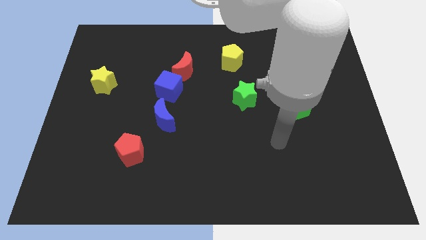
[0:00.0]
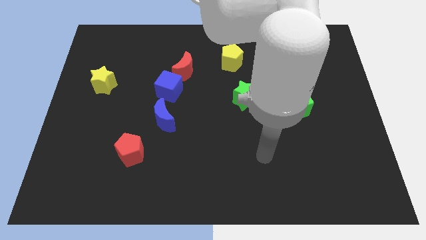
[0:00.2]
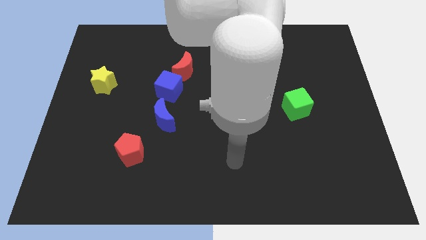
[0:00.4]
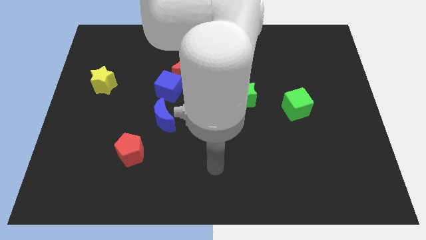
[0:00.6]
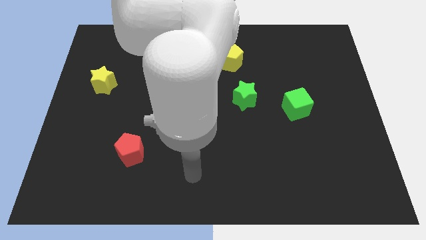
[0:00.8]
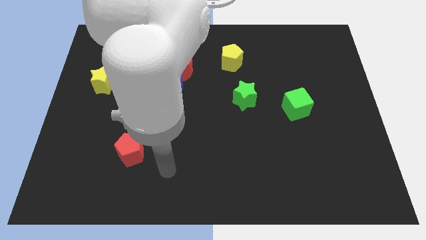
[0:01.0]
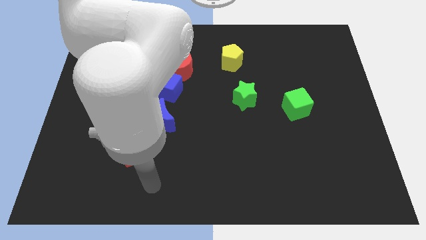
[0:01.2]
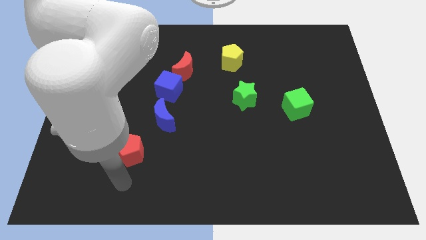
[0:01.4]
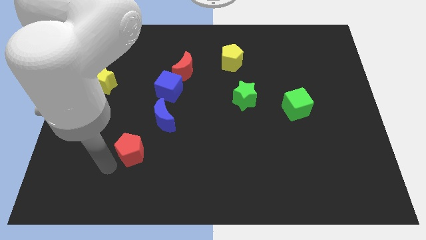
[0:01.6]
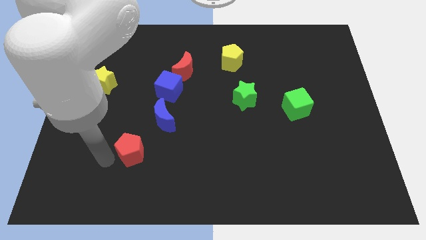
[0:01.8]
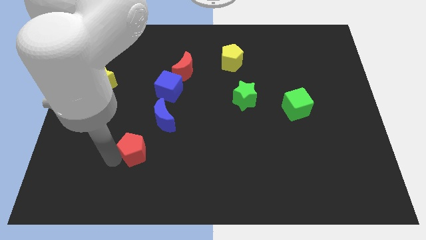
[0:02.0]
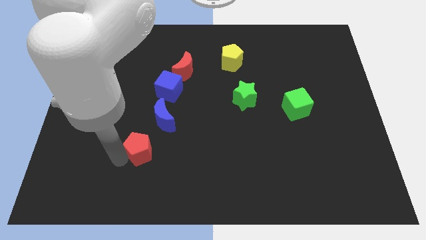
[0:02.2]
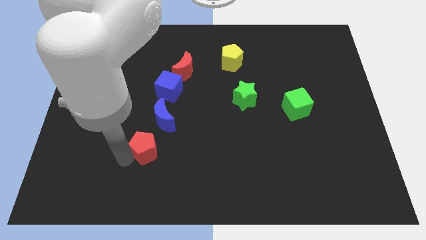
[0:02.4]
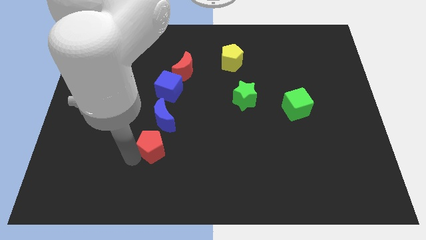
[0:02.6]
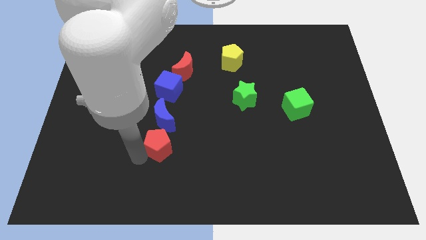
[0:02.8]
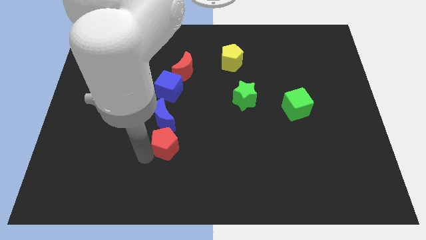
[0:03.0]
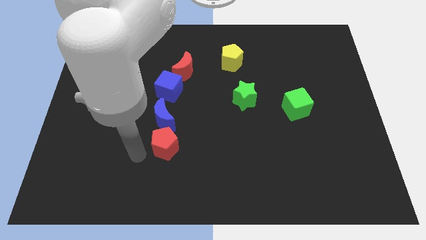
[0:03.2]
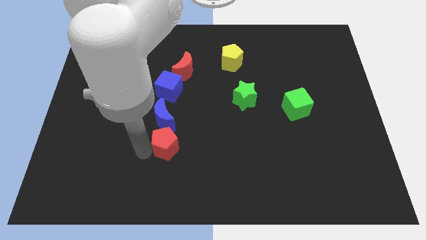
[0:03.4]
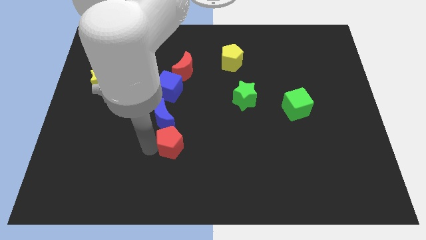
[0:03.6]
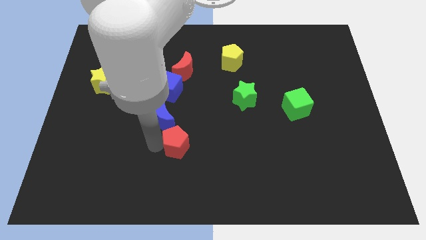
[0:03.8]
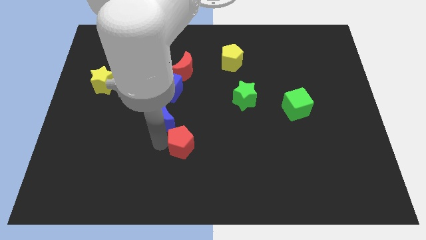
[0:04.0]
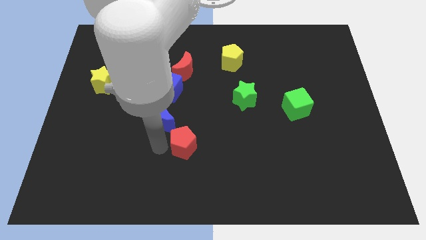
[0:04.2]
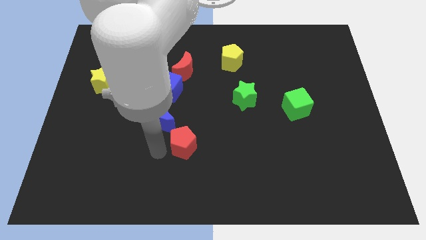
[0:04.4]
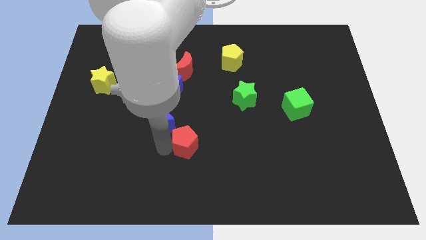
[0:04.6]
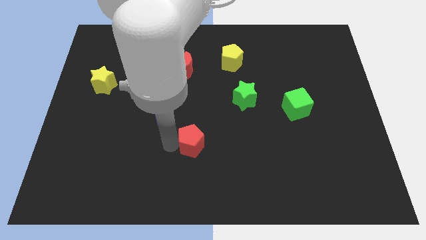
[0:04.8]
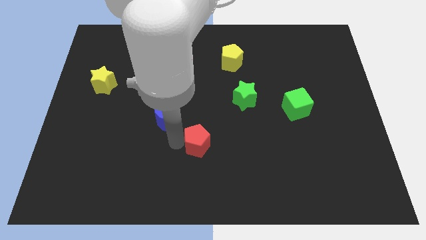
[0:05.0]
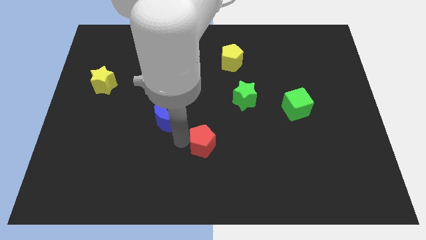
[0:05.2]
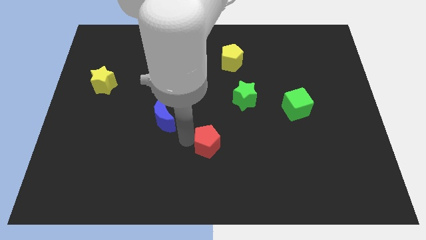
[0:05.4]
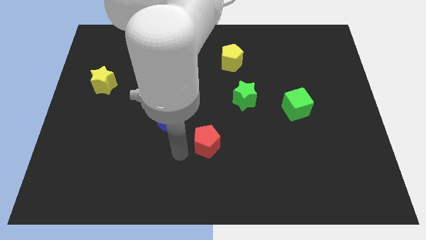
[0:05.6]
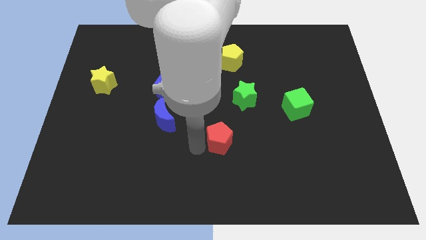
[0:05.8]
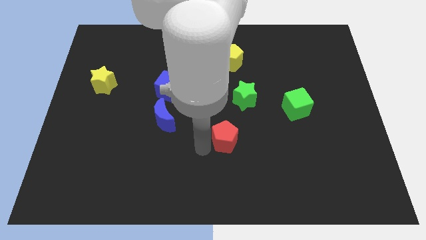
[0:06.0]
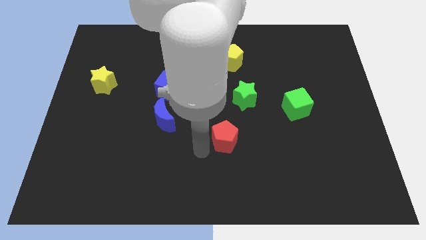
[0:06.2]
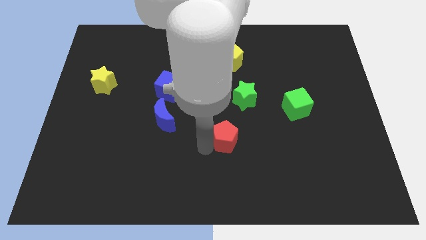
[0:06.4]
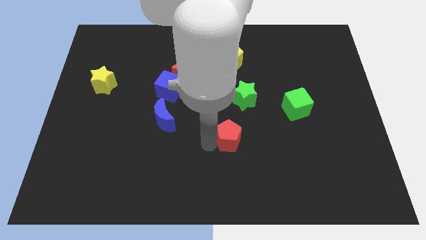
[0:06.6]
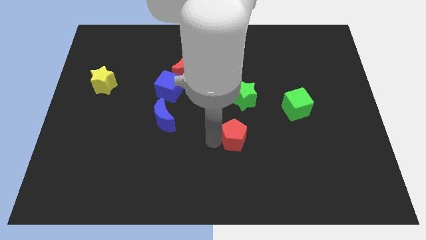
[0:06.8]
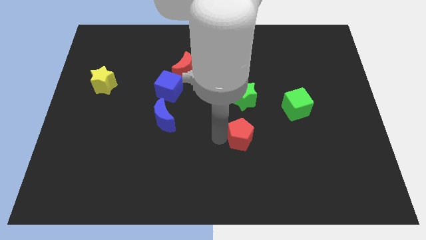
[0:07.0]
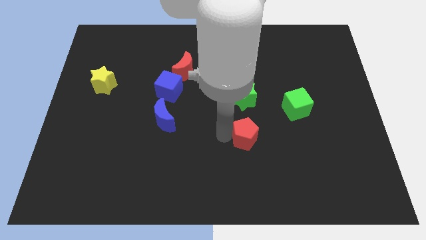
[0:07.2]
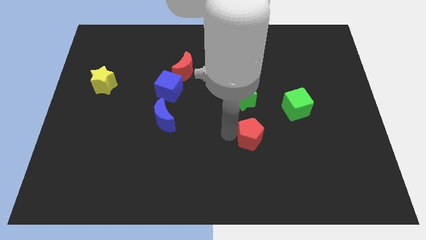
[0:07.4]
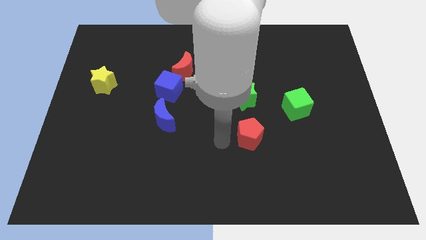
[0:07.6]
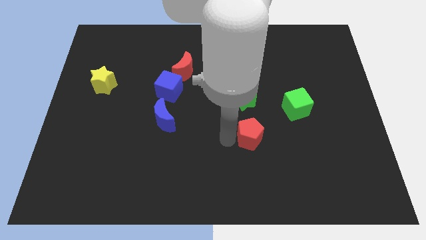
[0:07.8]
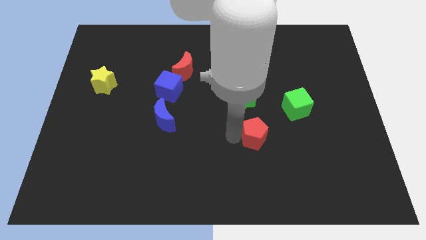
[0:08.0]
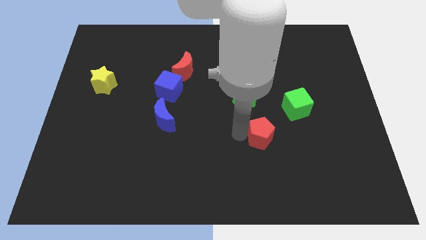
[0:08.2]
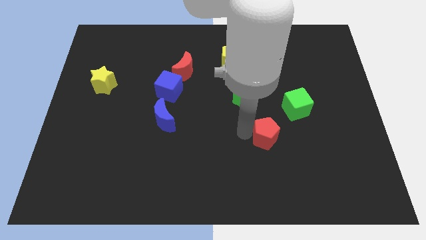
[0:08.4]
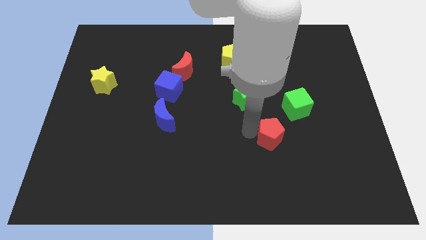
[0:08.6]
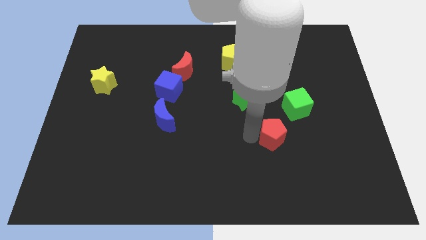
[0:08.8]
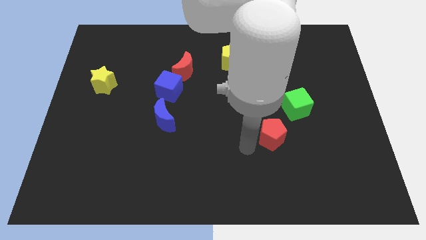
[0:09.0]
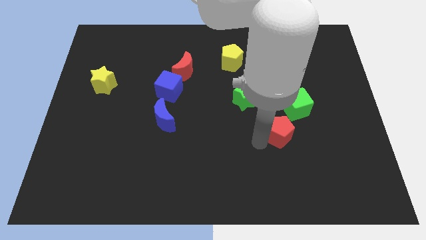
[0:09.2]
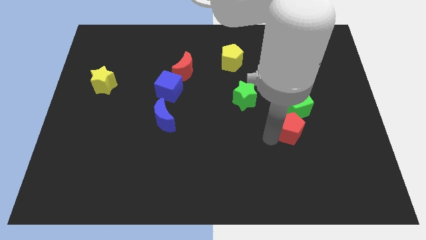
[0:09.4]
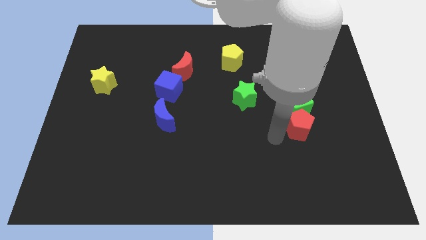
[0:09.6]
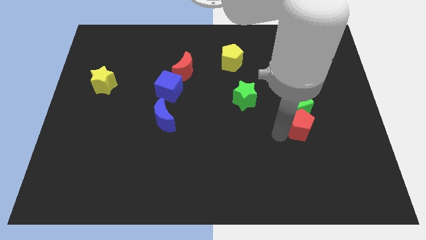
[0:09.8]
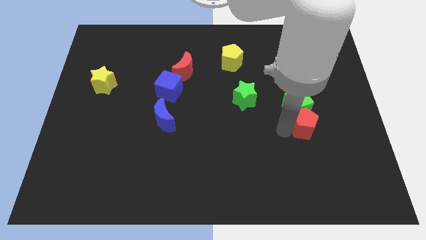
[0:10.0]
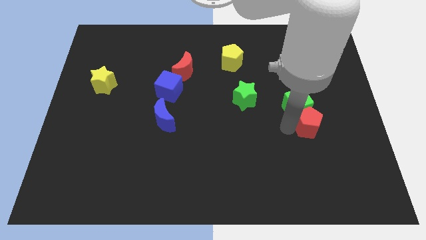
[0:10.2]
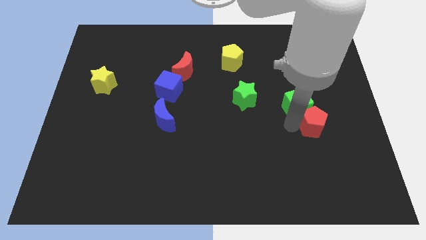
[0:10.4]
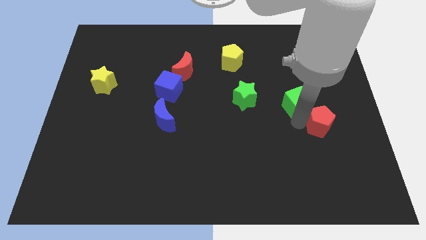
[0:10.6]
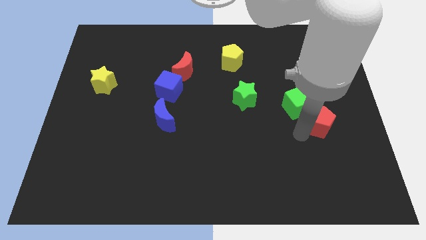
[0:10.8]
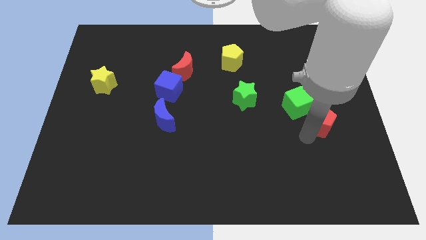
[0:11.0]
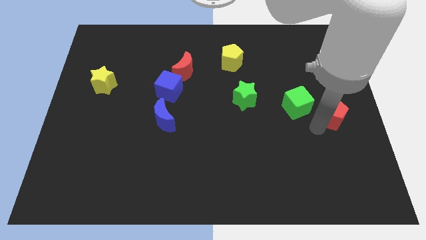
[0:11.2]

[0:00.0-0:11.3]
put the red pentagon to the right side of the board
